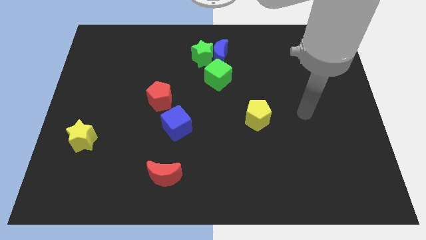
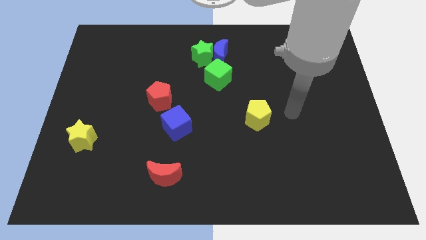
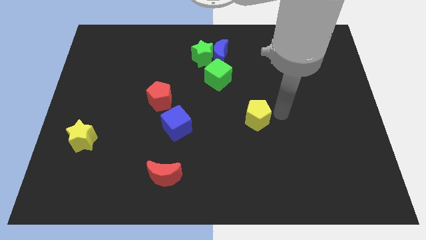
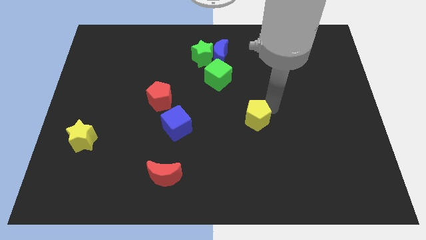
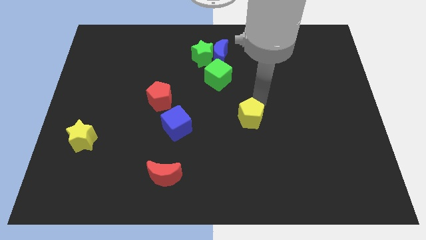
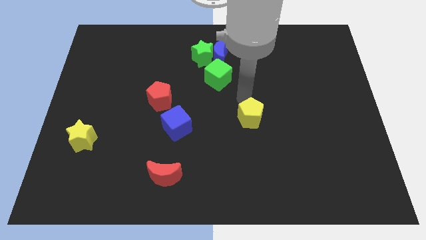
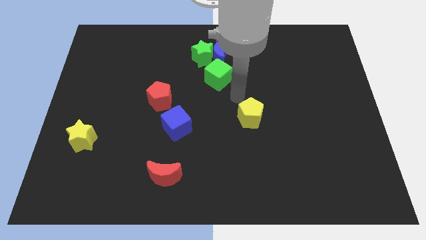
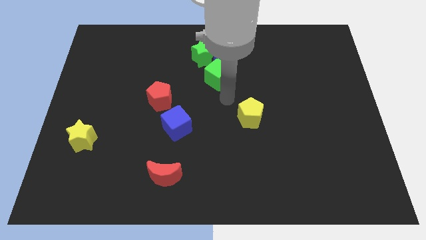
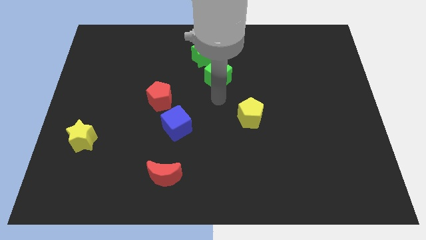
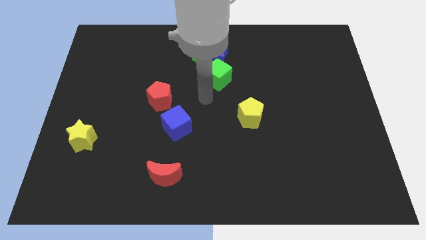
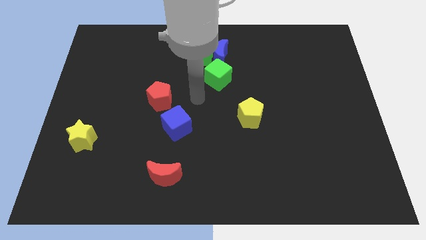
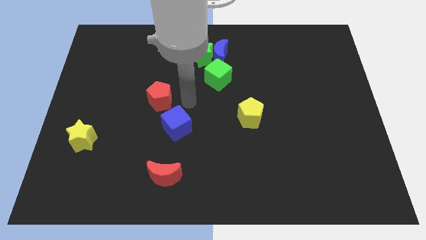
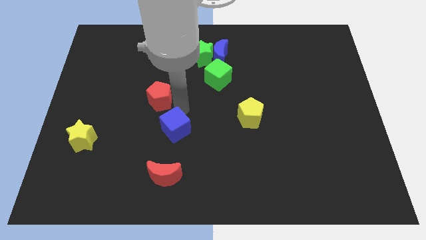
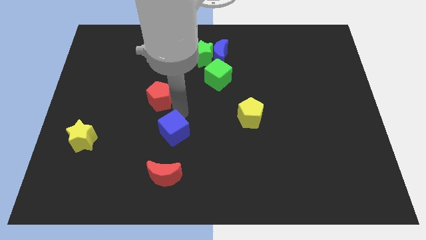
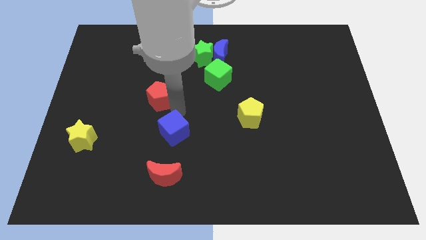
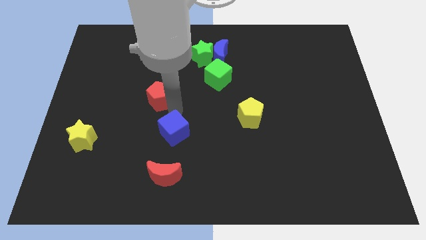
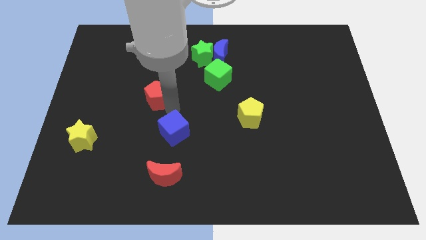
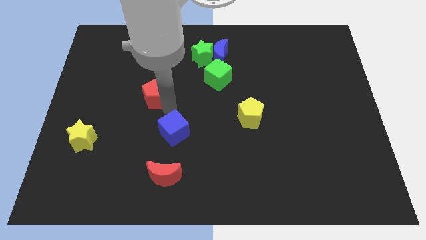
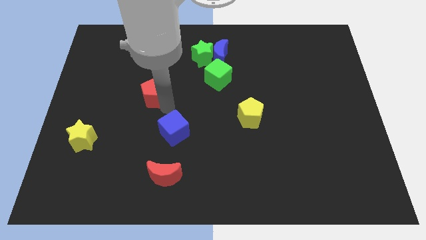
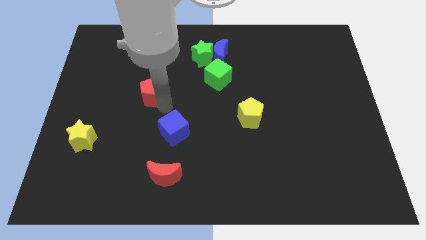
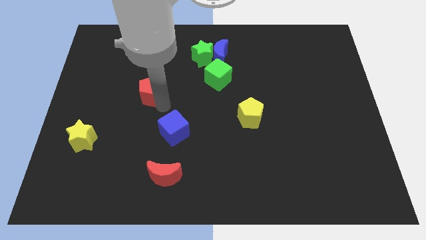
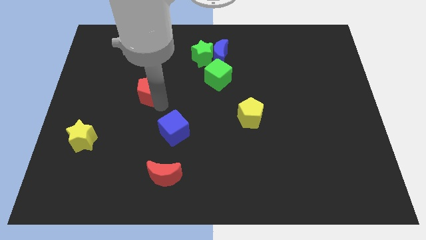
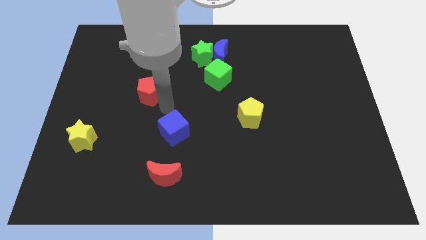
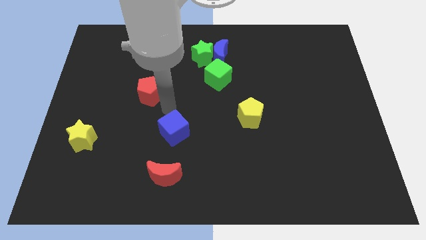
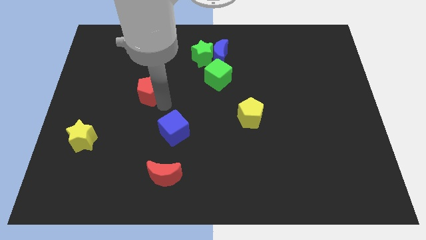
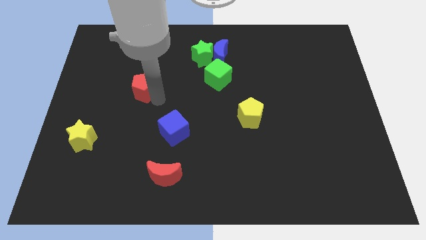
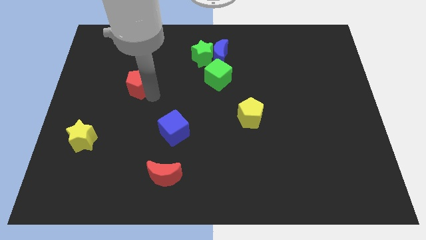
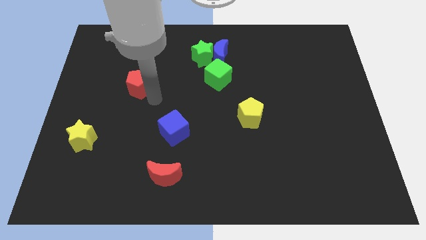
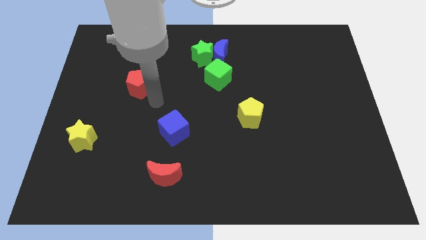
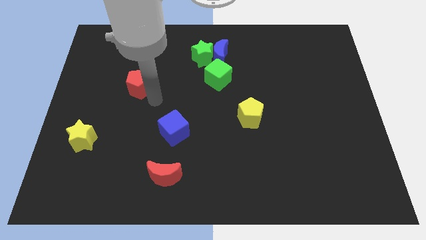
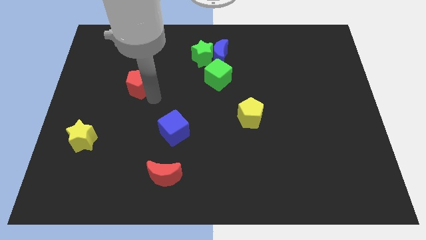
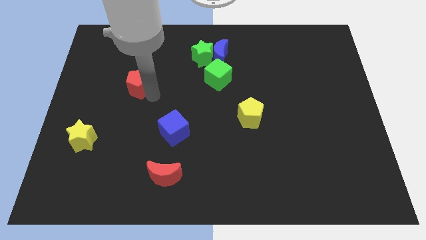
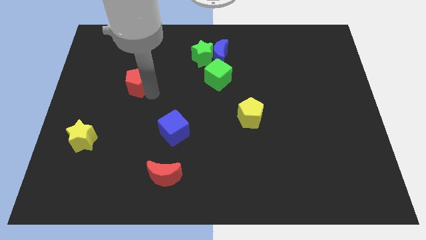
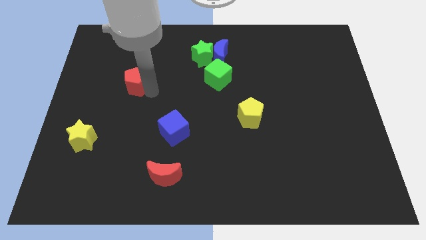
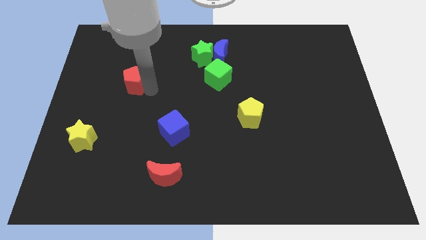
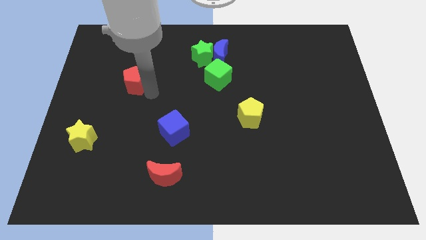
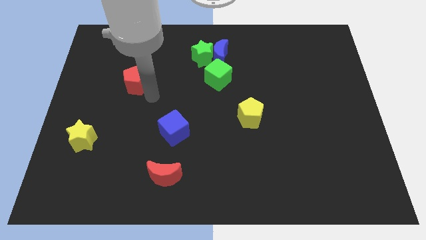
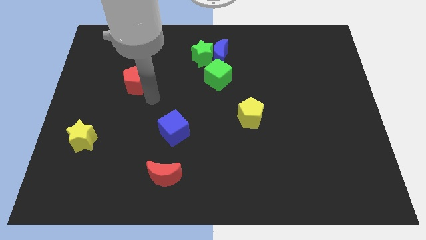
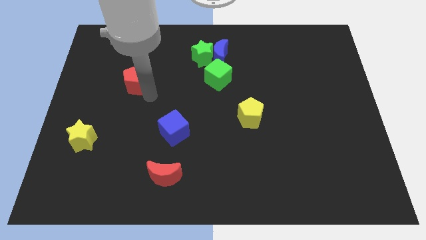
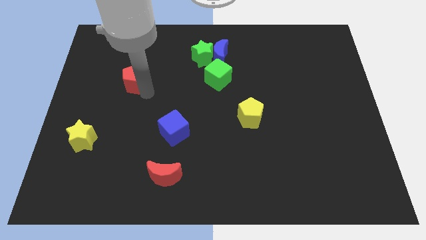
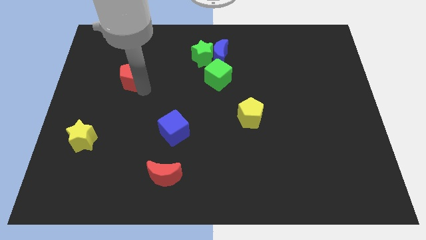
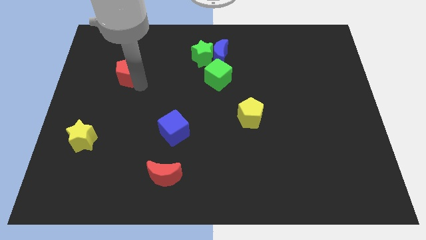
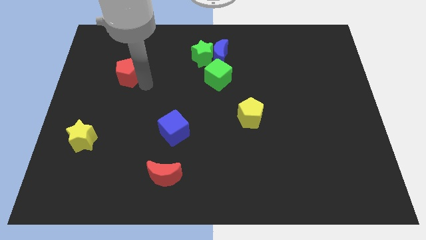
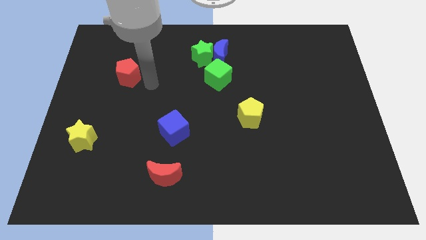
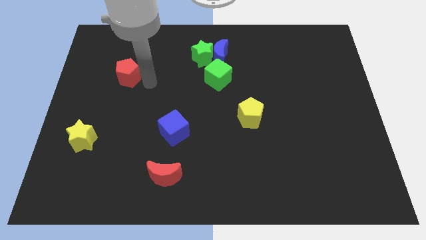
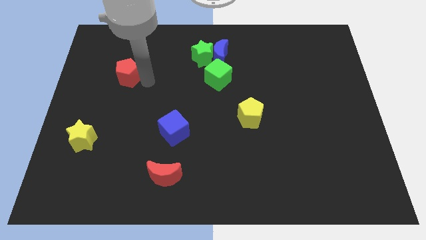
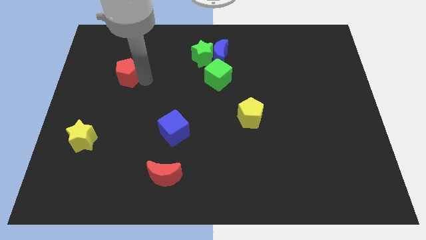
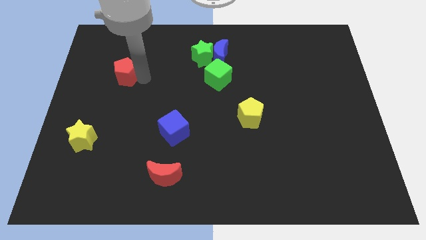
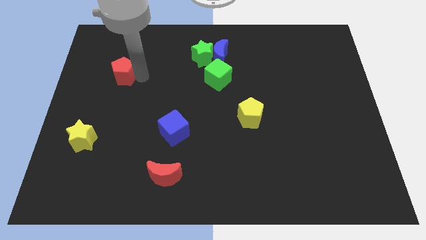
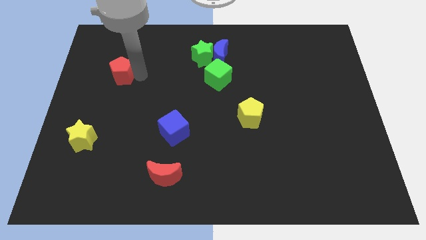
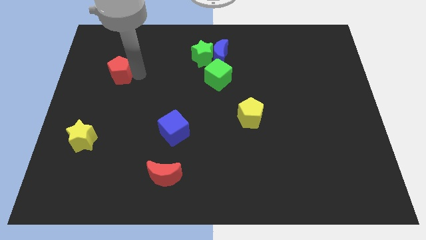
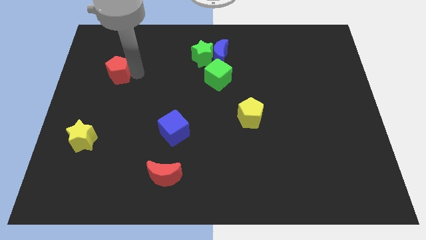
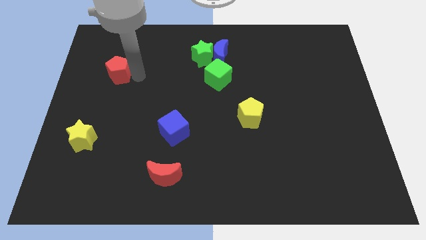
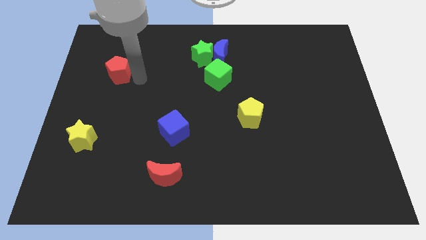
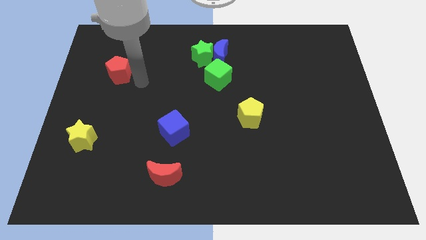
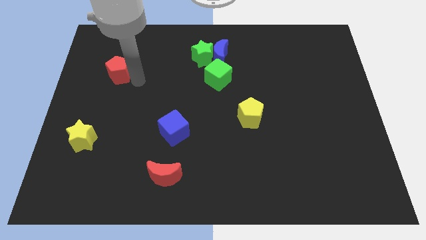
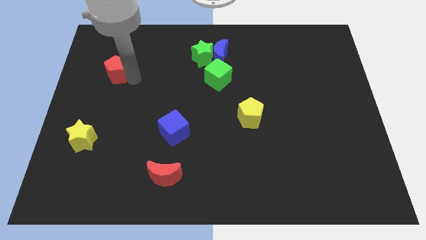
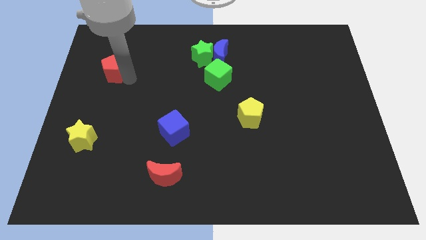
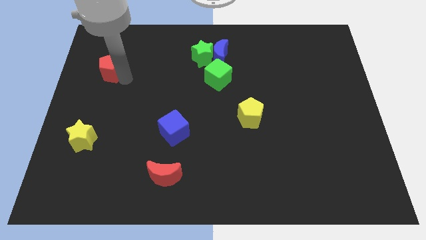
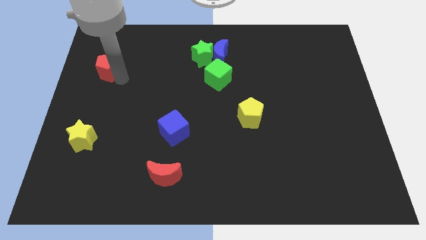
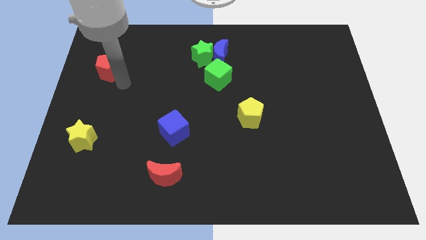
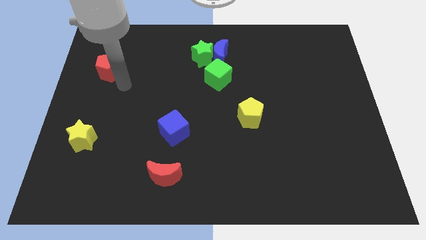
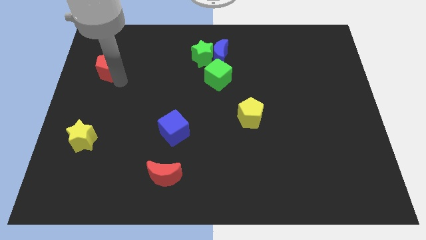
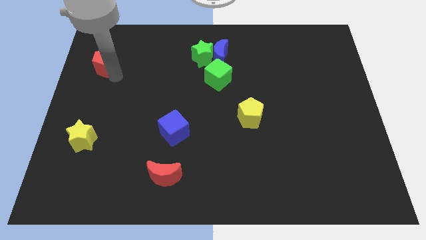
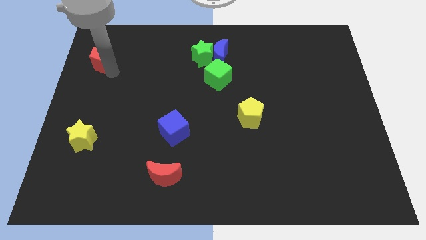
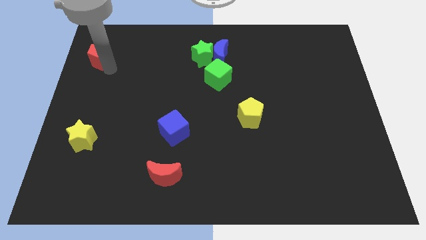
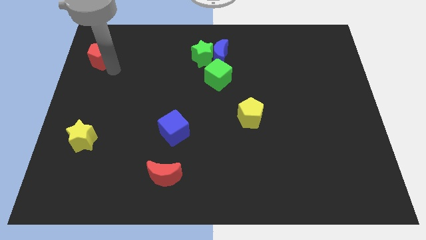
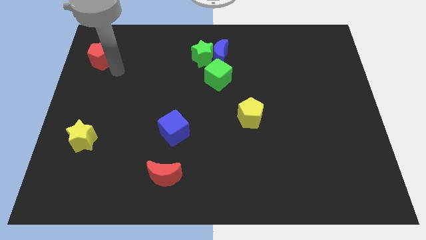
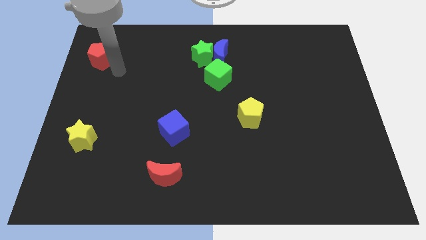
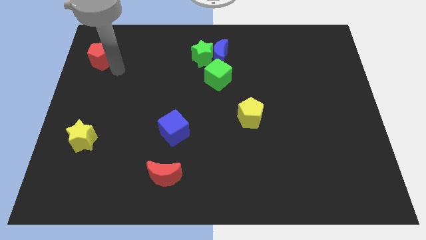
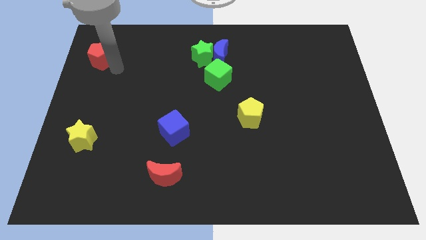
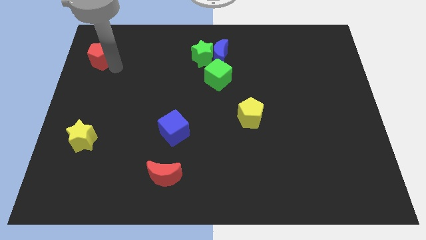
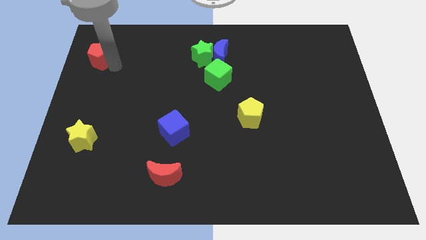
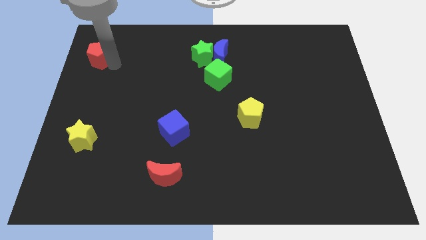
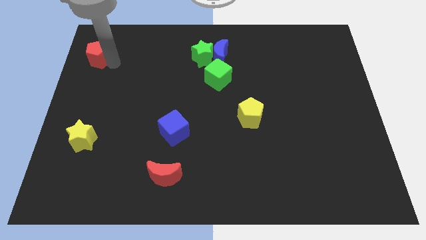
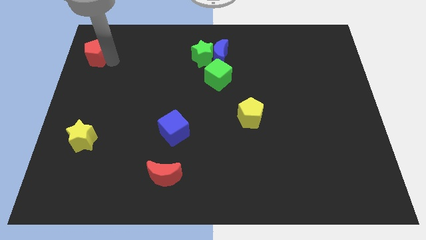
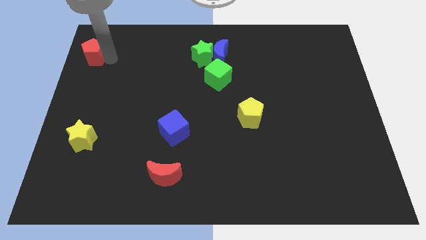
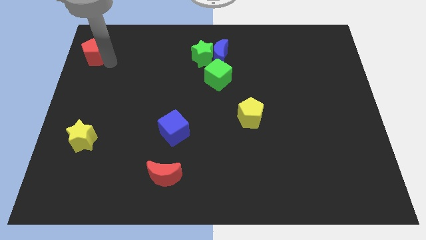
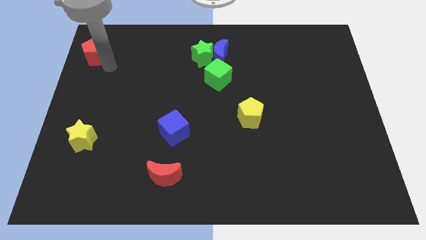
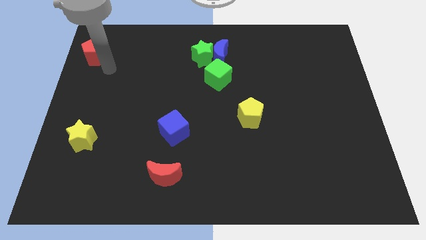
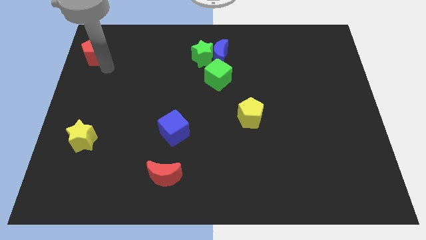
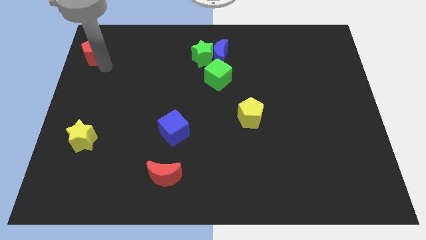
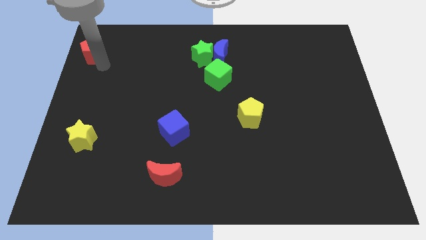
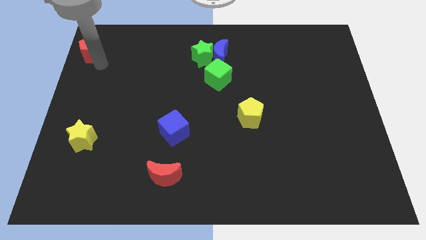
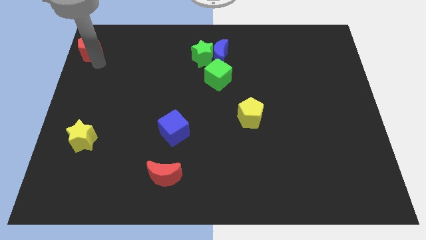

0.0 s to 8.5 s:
push the red pentagon to the top left
